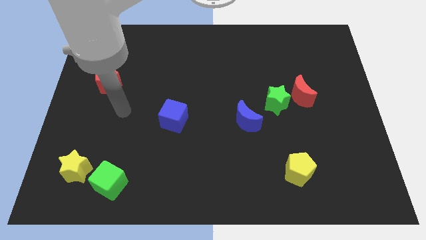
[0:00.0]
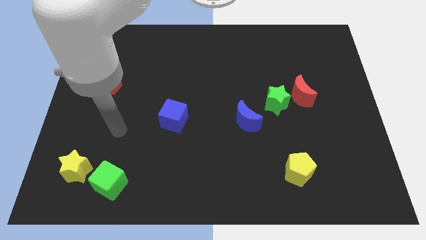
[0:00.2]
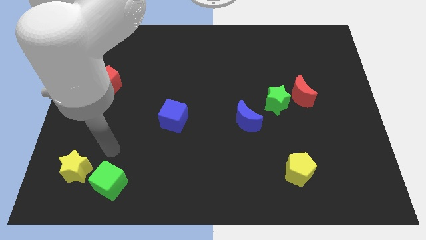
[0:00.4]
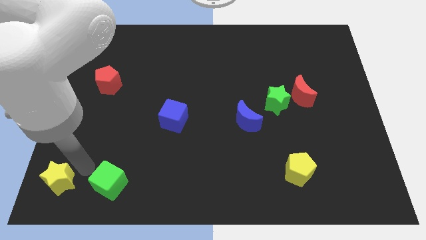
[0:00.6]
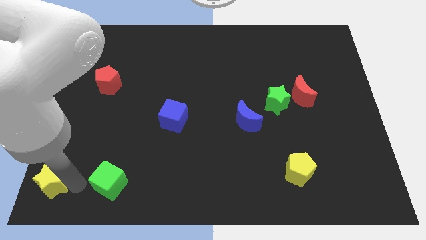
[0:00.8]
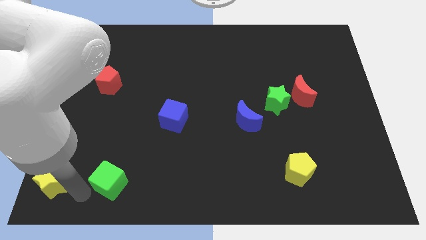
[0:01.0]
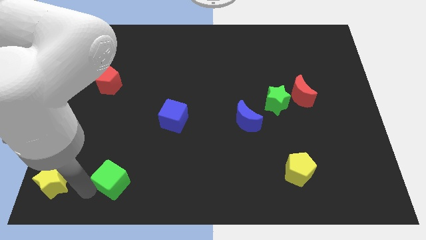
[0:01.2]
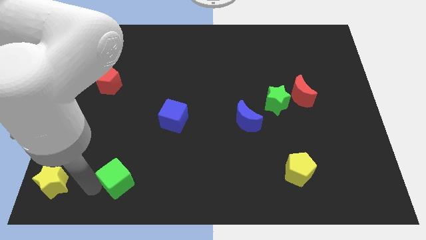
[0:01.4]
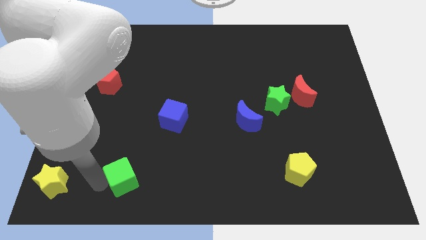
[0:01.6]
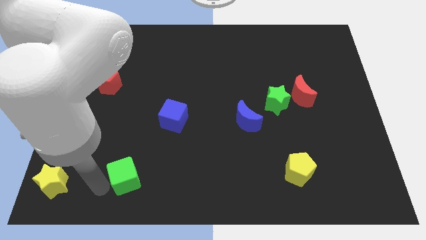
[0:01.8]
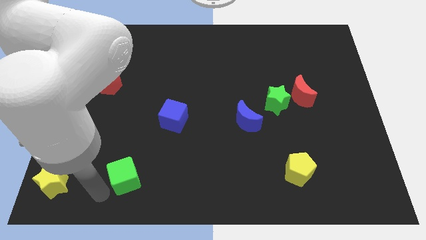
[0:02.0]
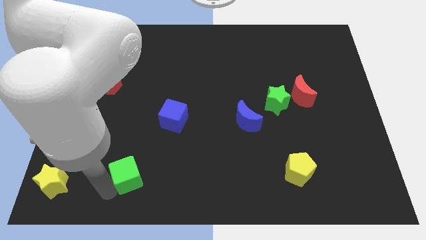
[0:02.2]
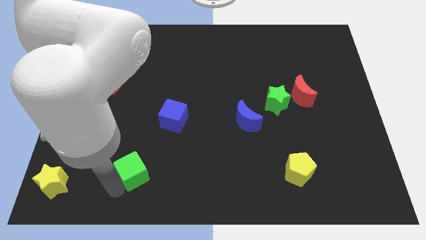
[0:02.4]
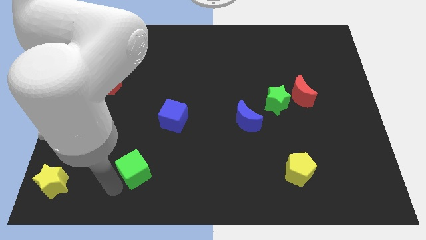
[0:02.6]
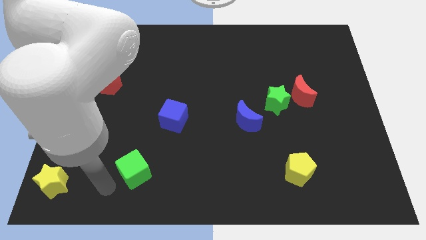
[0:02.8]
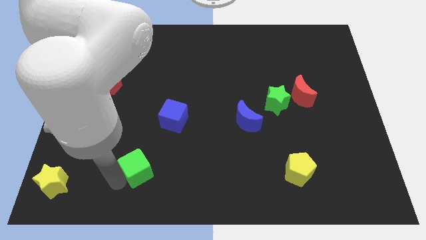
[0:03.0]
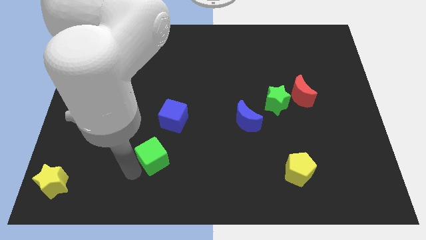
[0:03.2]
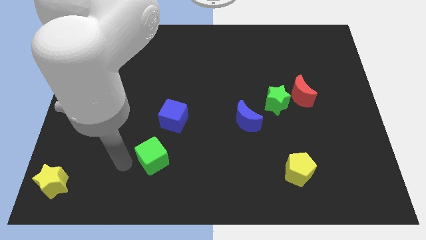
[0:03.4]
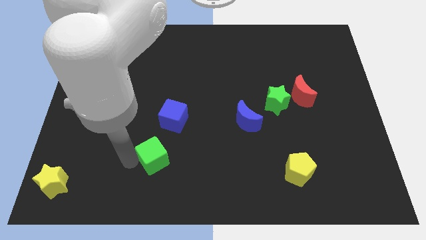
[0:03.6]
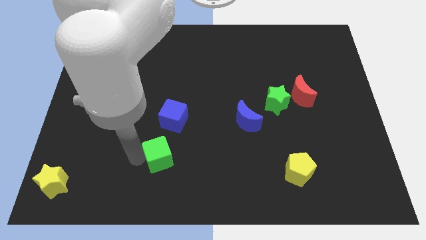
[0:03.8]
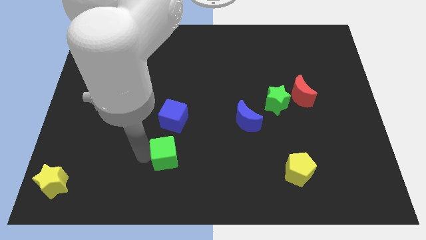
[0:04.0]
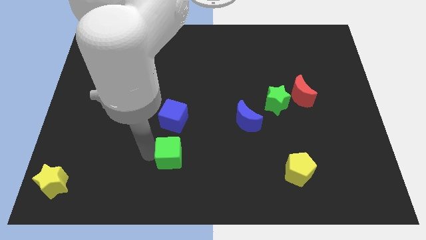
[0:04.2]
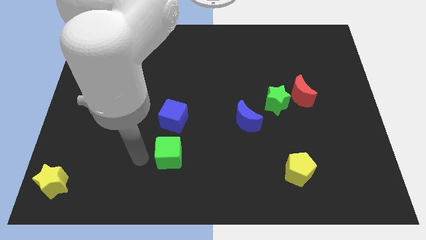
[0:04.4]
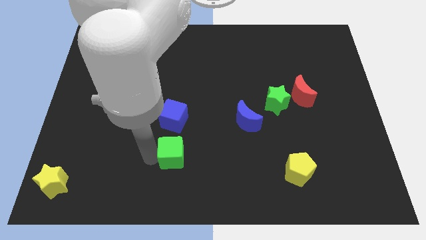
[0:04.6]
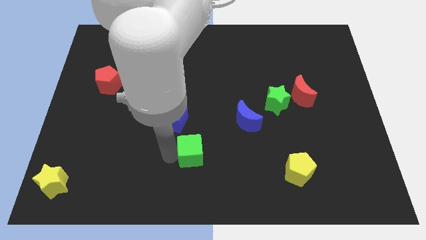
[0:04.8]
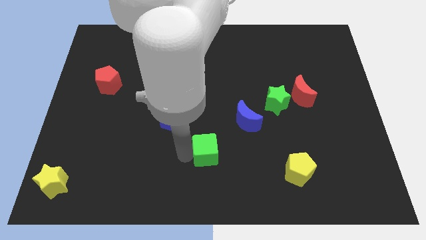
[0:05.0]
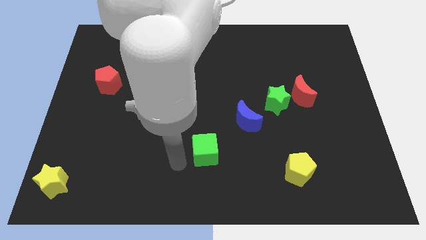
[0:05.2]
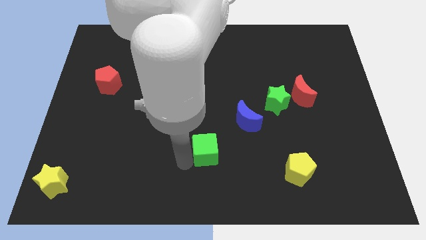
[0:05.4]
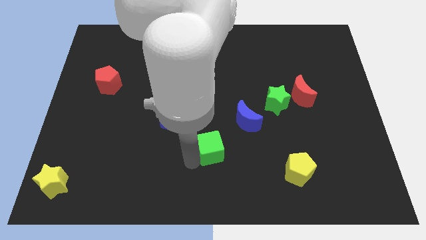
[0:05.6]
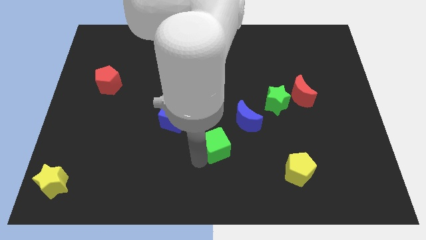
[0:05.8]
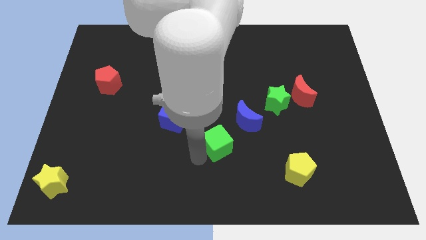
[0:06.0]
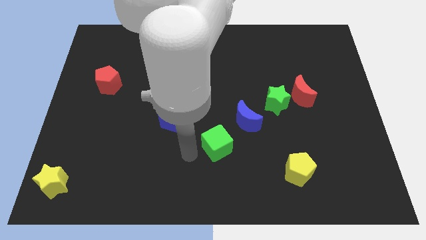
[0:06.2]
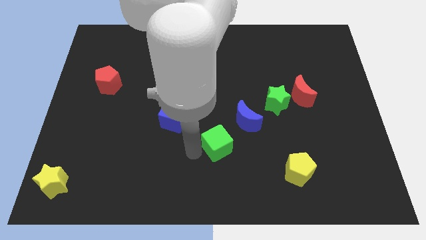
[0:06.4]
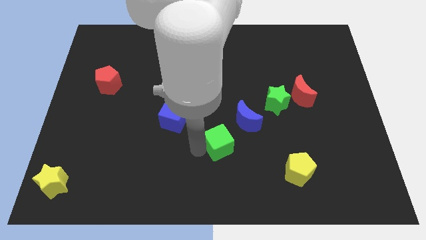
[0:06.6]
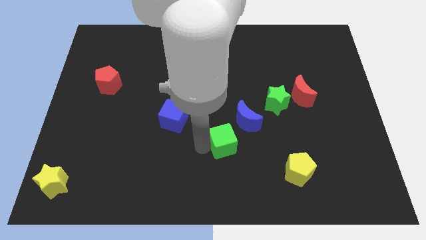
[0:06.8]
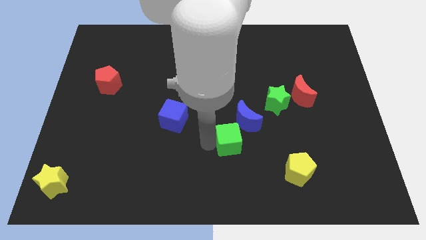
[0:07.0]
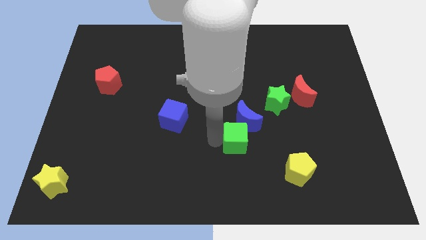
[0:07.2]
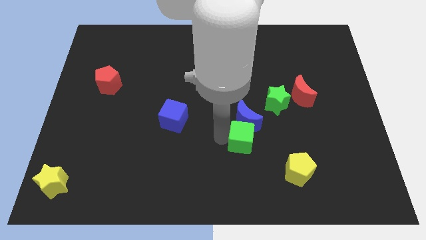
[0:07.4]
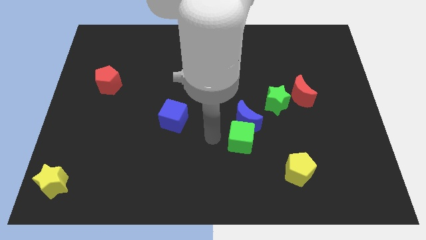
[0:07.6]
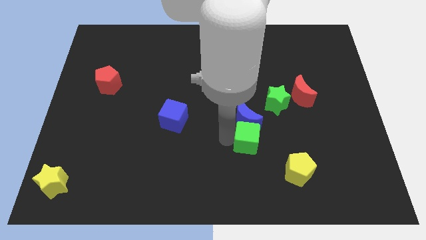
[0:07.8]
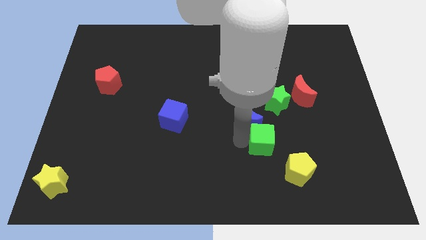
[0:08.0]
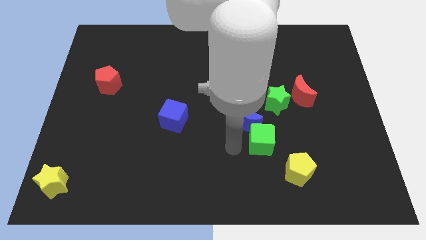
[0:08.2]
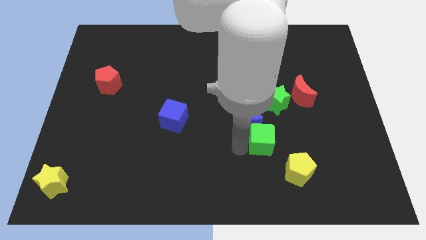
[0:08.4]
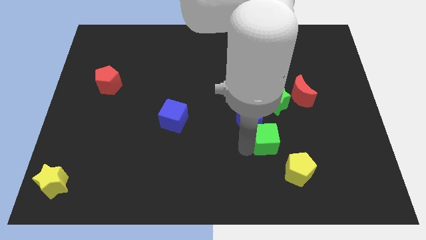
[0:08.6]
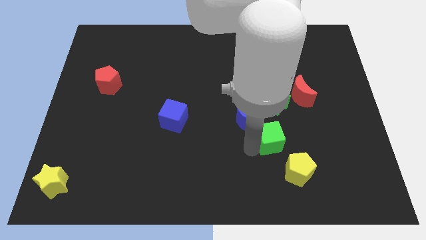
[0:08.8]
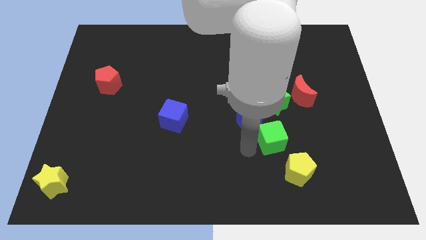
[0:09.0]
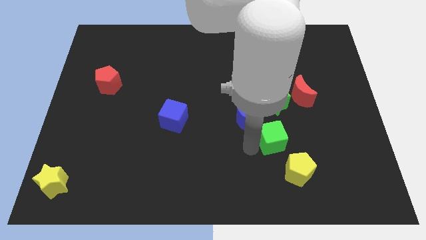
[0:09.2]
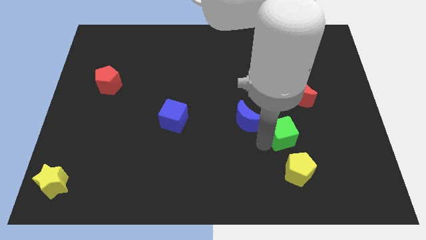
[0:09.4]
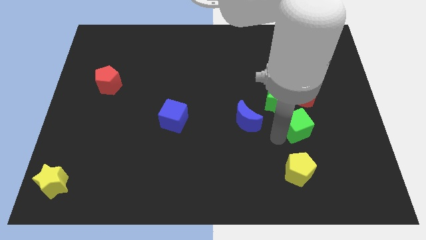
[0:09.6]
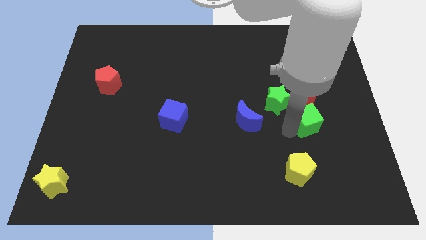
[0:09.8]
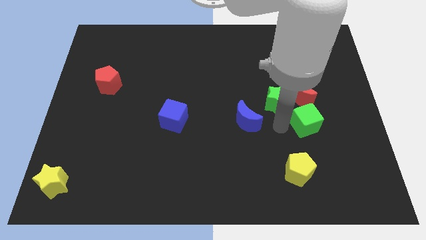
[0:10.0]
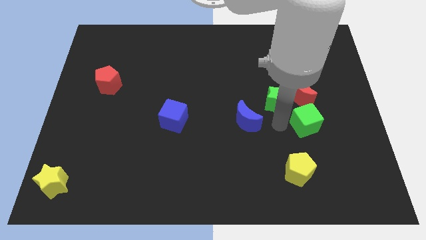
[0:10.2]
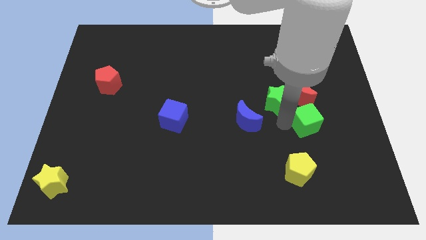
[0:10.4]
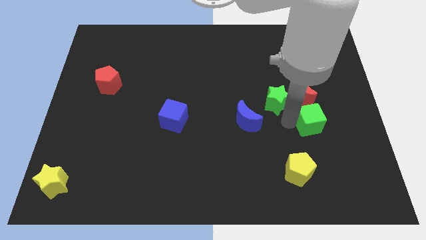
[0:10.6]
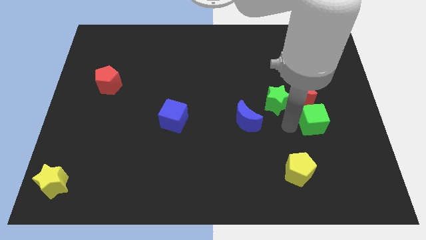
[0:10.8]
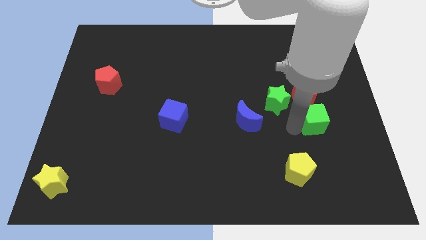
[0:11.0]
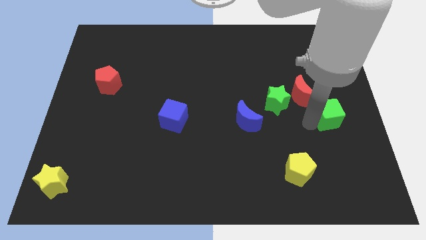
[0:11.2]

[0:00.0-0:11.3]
push the green cube to the right side
